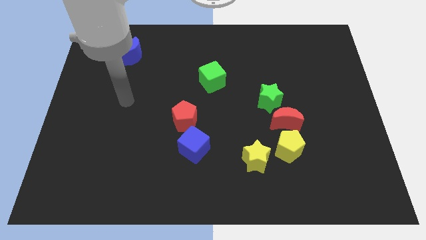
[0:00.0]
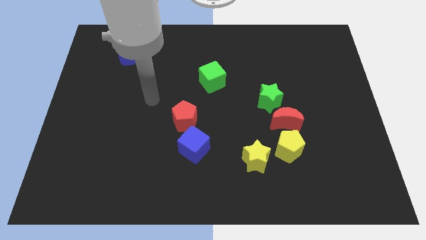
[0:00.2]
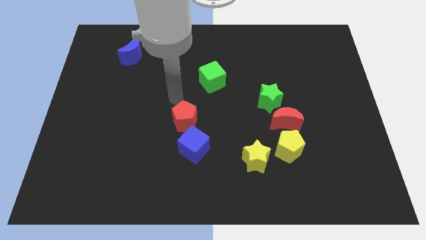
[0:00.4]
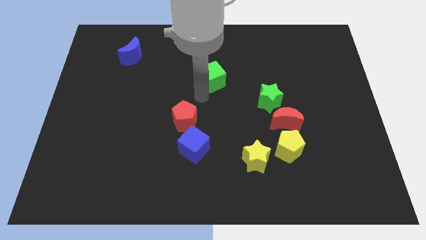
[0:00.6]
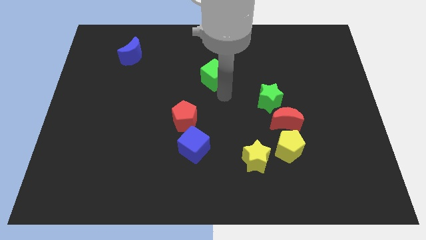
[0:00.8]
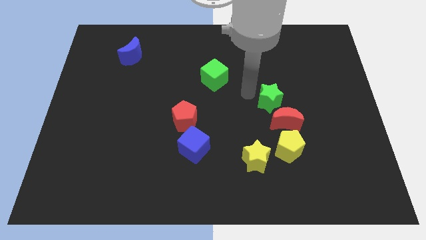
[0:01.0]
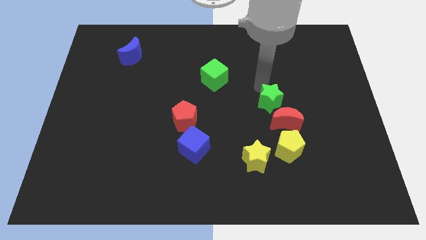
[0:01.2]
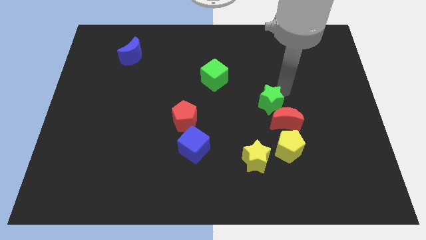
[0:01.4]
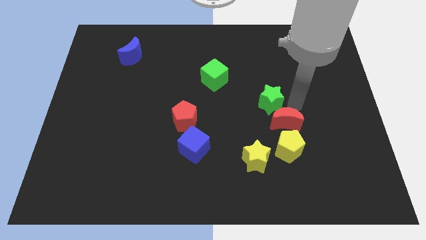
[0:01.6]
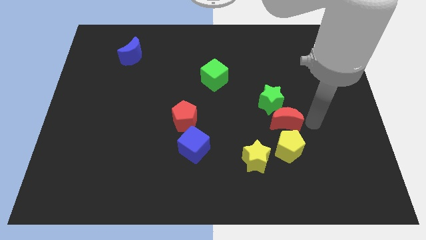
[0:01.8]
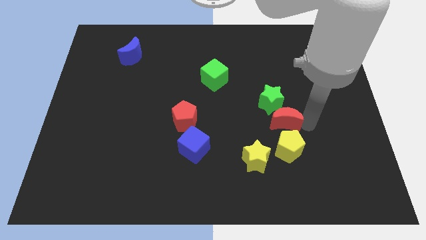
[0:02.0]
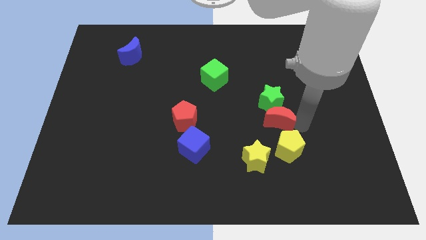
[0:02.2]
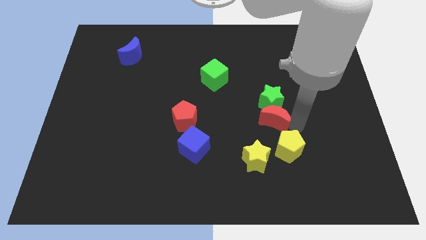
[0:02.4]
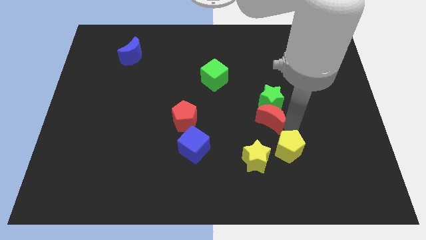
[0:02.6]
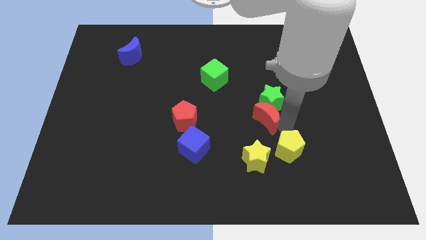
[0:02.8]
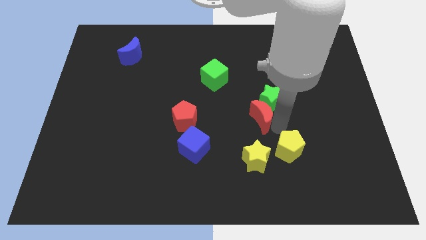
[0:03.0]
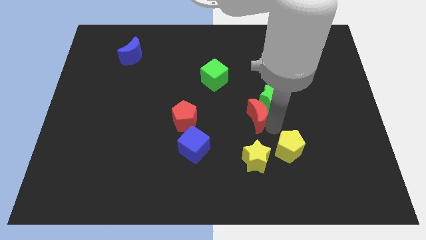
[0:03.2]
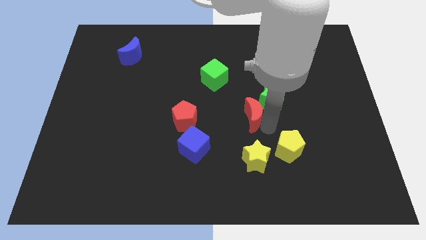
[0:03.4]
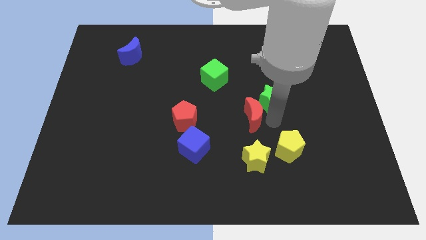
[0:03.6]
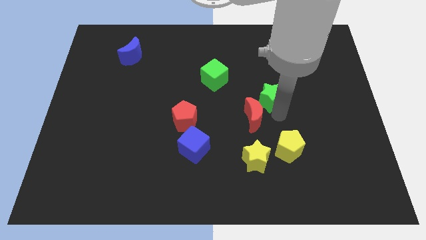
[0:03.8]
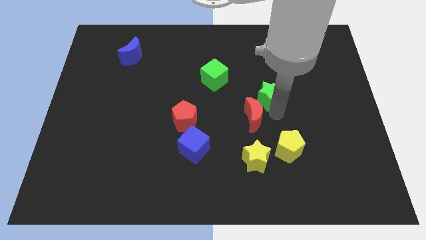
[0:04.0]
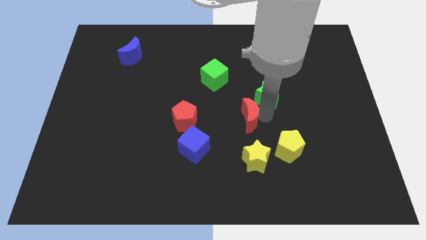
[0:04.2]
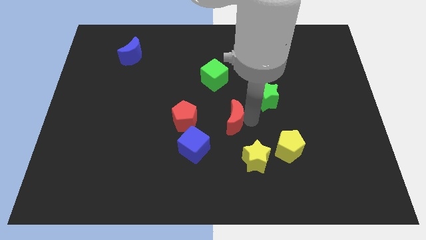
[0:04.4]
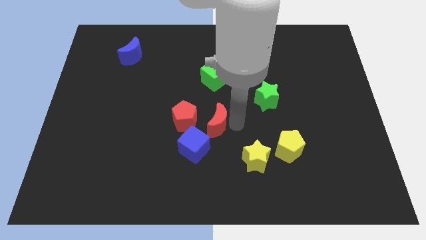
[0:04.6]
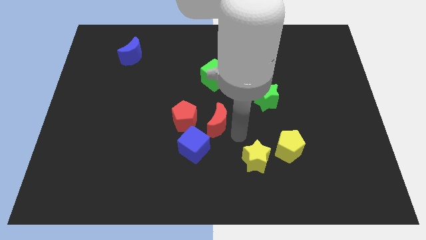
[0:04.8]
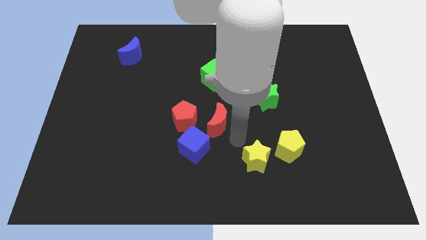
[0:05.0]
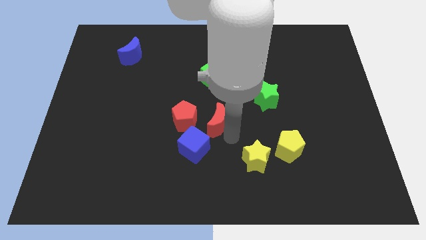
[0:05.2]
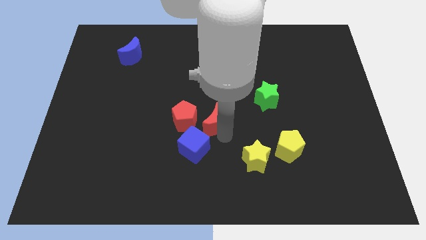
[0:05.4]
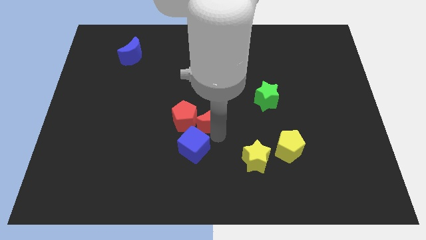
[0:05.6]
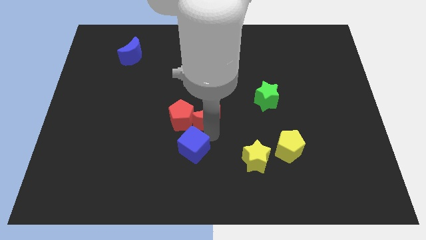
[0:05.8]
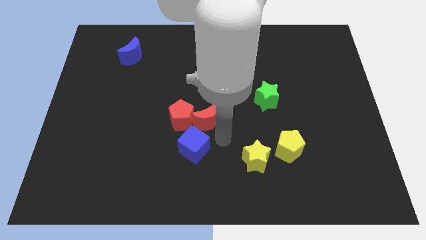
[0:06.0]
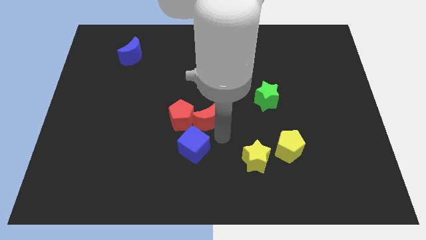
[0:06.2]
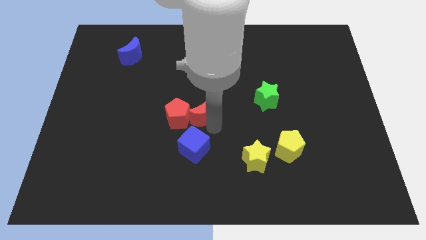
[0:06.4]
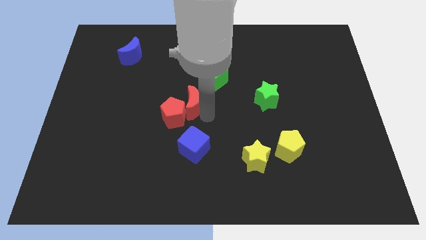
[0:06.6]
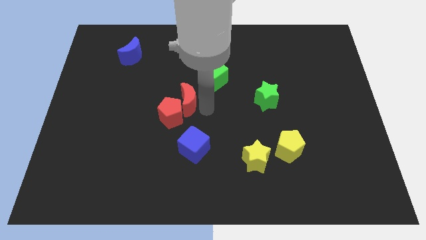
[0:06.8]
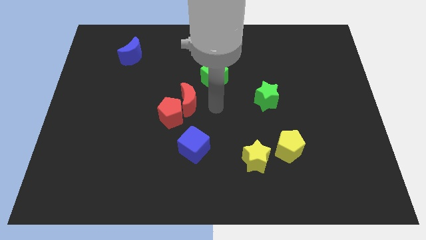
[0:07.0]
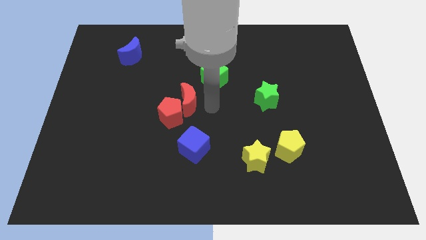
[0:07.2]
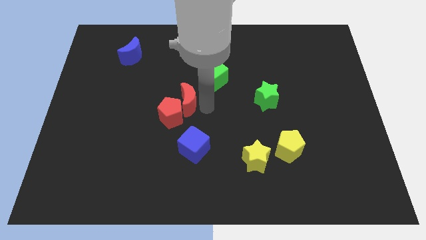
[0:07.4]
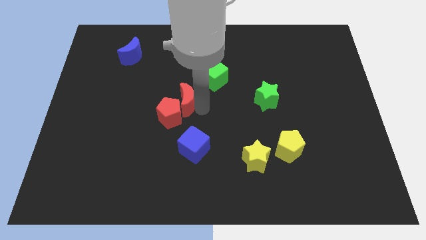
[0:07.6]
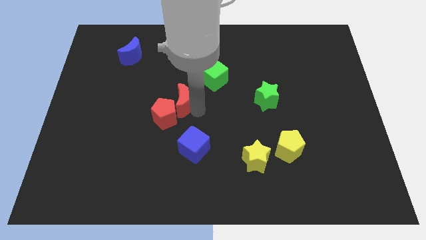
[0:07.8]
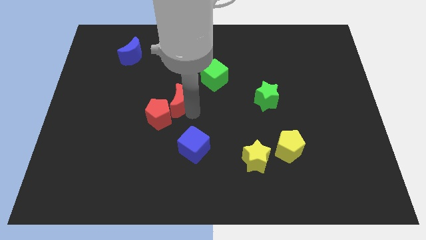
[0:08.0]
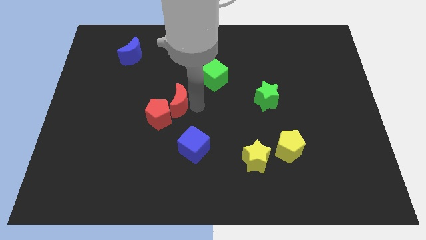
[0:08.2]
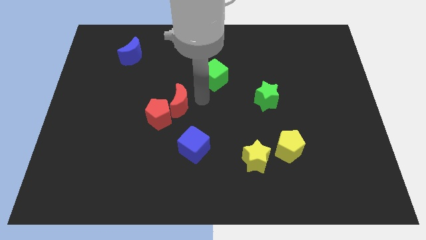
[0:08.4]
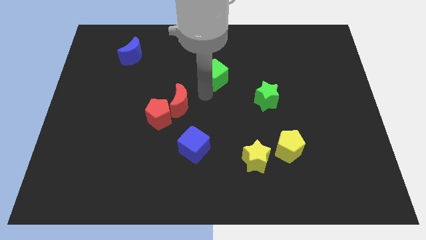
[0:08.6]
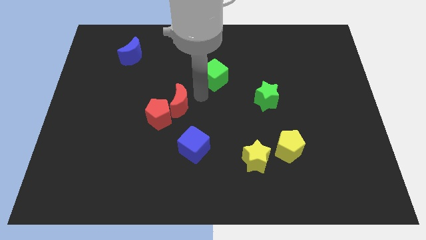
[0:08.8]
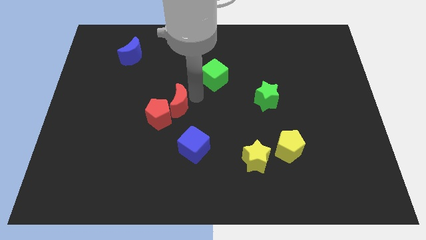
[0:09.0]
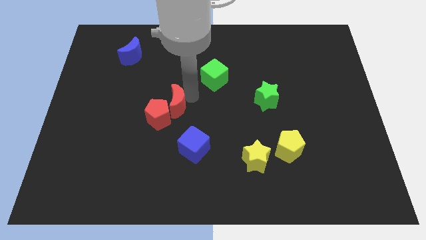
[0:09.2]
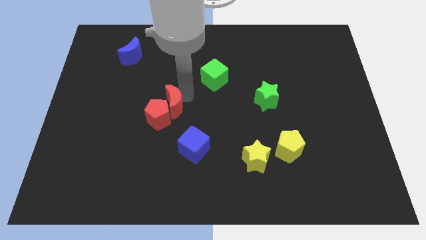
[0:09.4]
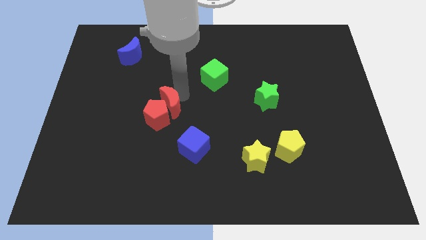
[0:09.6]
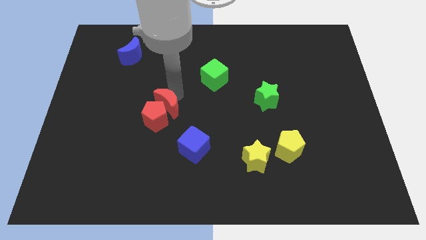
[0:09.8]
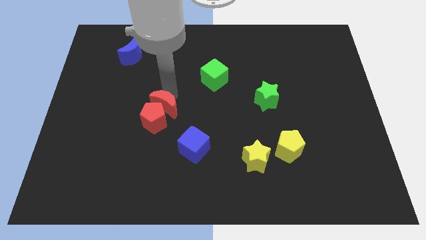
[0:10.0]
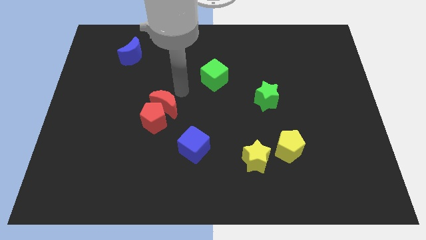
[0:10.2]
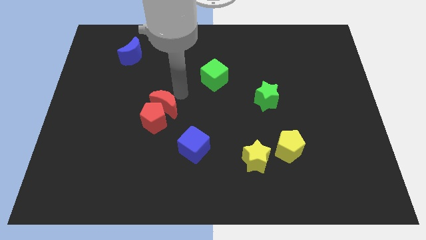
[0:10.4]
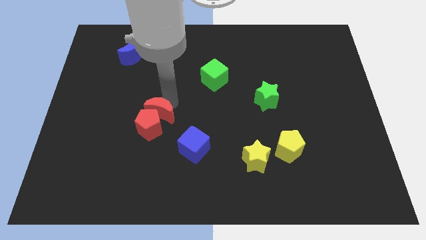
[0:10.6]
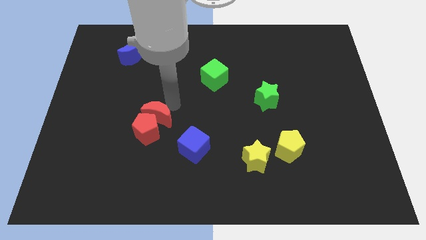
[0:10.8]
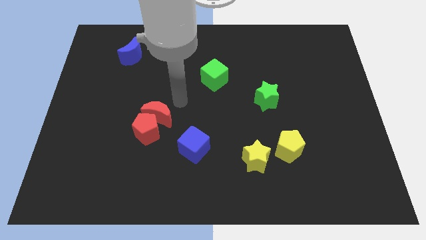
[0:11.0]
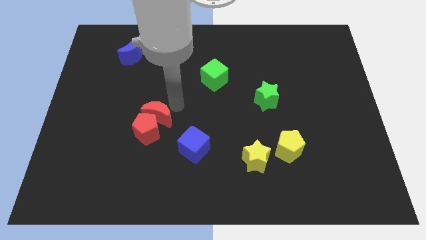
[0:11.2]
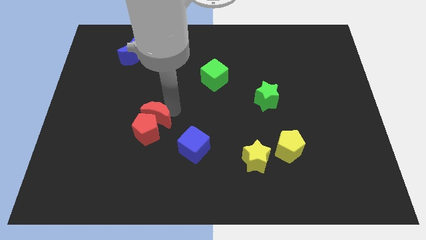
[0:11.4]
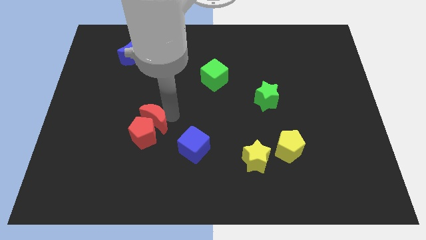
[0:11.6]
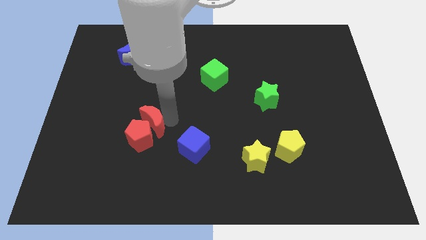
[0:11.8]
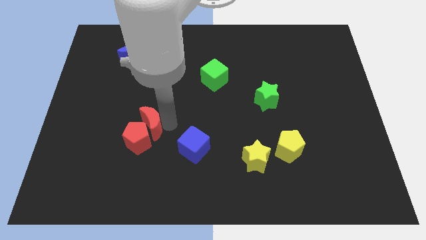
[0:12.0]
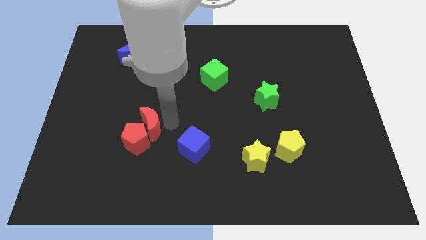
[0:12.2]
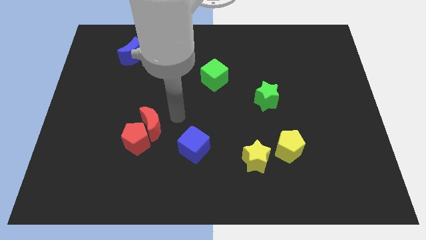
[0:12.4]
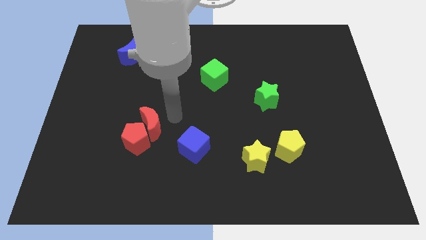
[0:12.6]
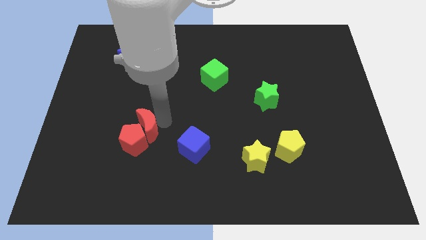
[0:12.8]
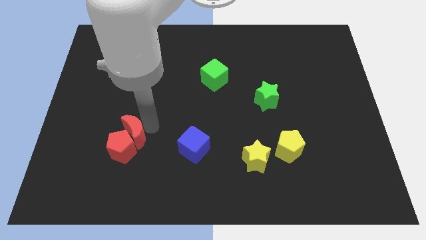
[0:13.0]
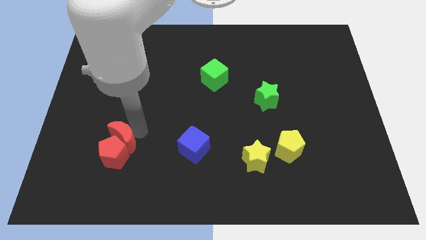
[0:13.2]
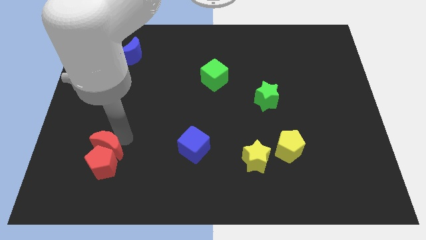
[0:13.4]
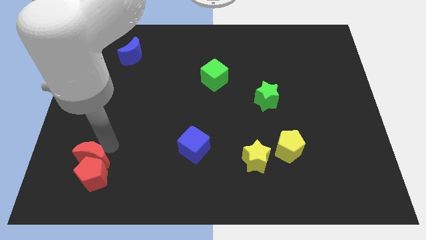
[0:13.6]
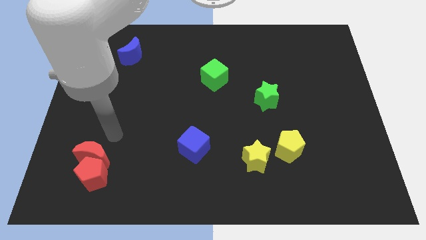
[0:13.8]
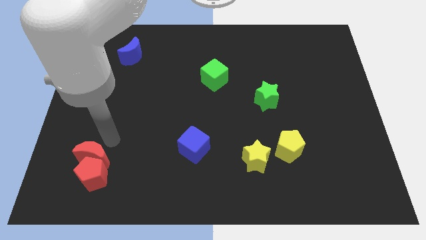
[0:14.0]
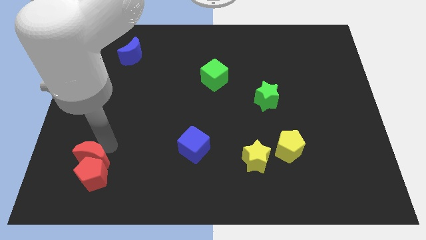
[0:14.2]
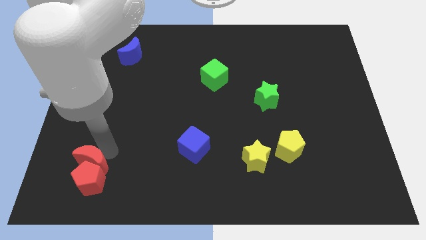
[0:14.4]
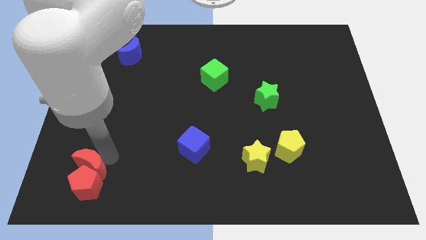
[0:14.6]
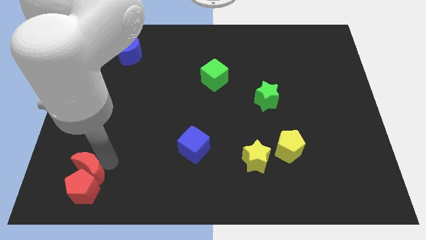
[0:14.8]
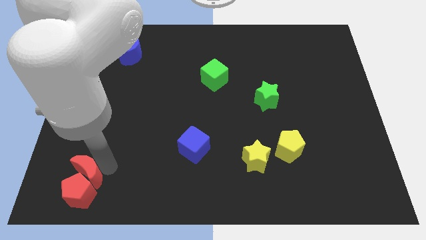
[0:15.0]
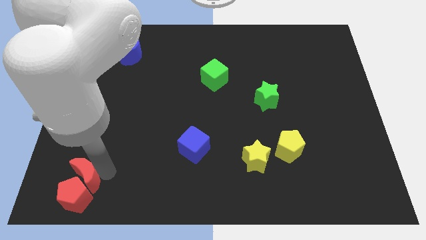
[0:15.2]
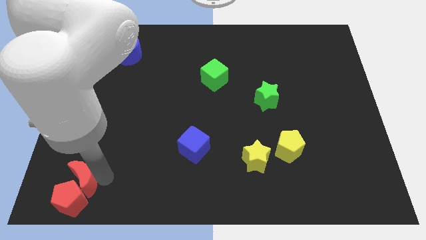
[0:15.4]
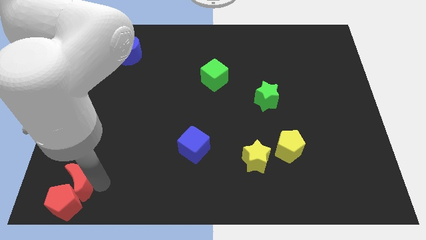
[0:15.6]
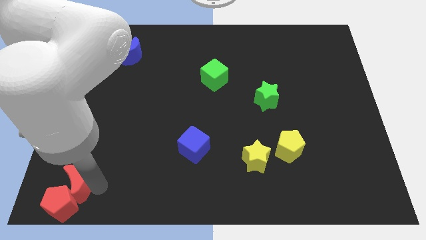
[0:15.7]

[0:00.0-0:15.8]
move the red moon to the lower left corner
